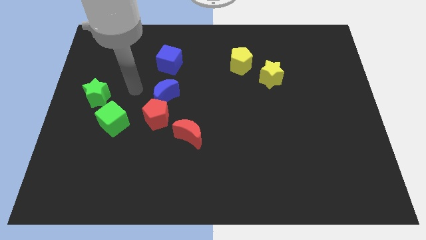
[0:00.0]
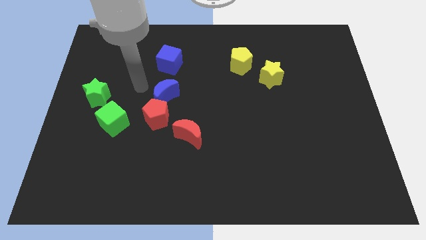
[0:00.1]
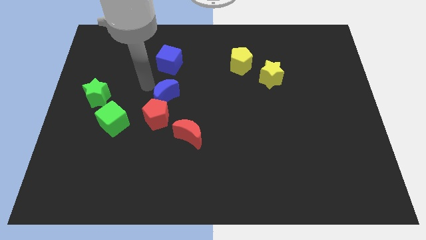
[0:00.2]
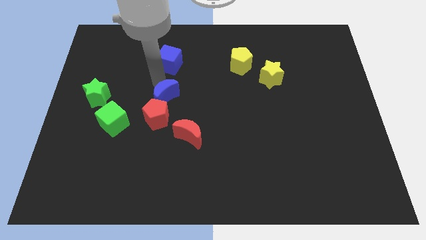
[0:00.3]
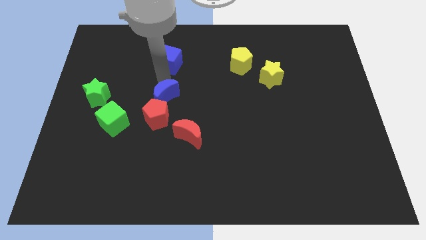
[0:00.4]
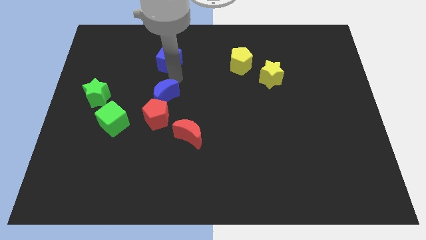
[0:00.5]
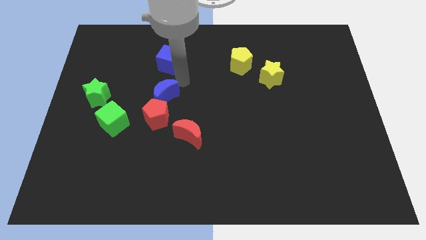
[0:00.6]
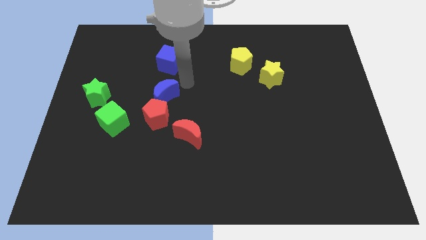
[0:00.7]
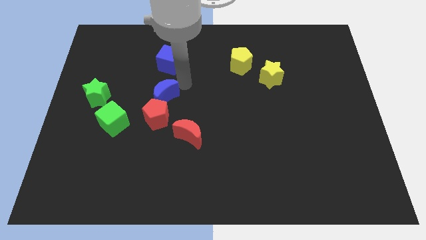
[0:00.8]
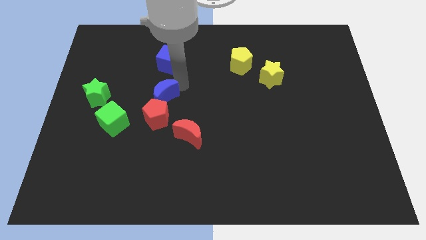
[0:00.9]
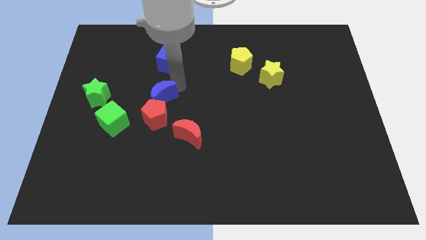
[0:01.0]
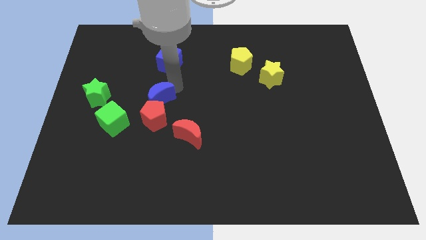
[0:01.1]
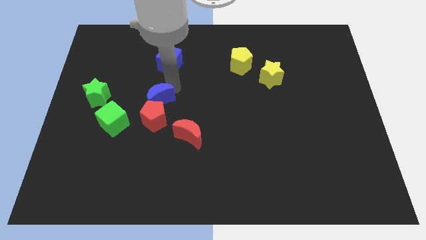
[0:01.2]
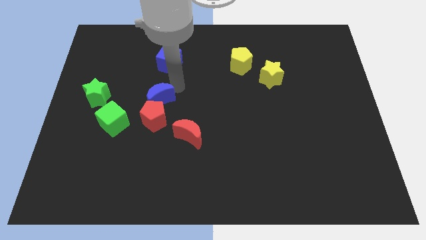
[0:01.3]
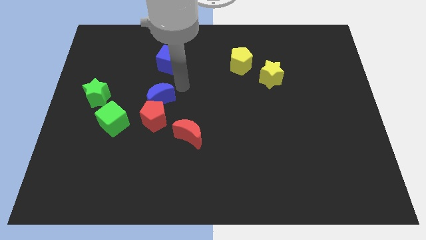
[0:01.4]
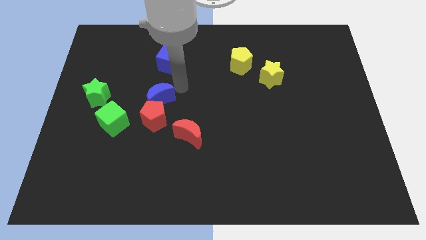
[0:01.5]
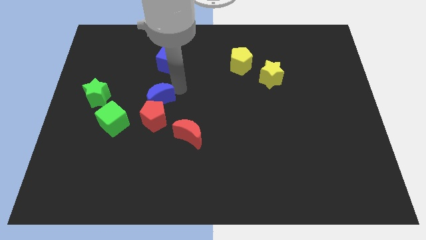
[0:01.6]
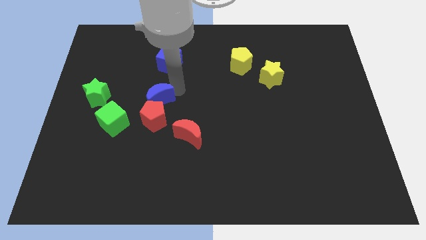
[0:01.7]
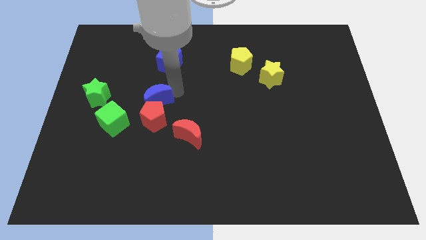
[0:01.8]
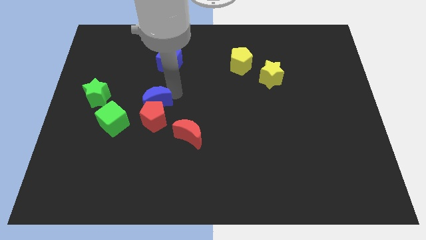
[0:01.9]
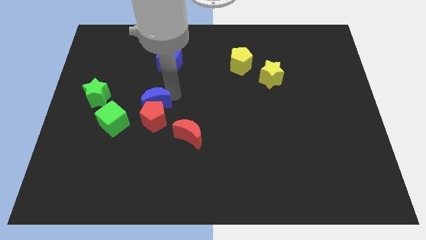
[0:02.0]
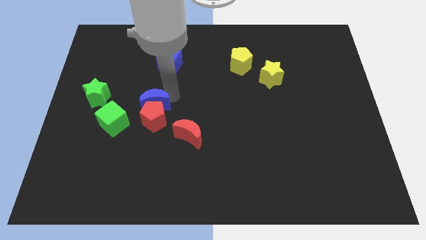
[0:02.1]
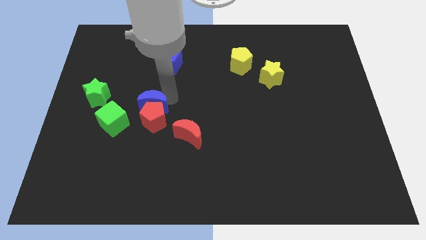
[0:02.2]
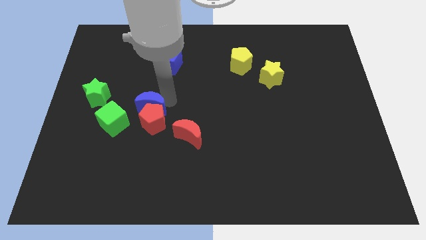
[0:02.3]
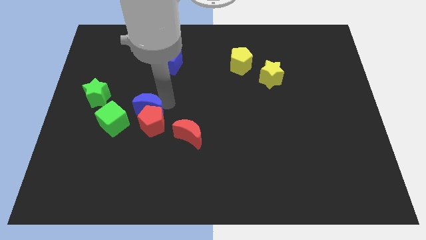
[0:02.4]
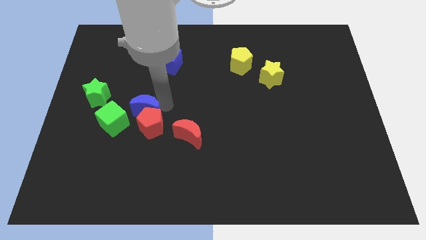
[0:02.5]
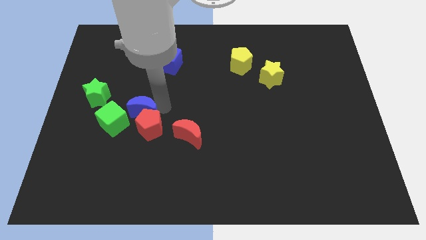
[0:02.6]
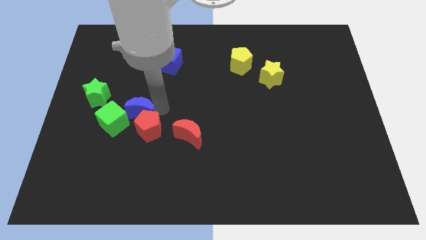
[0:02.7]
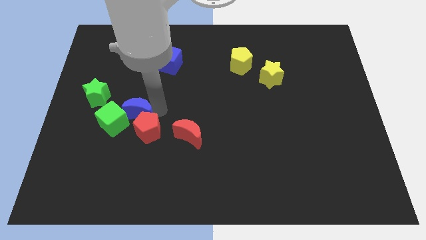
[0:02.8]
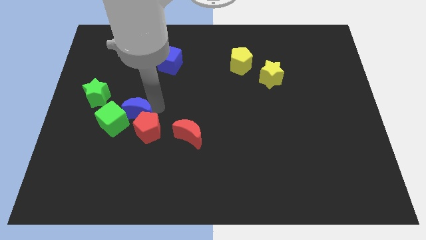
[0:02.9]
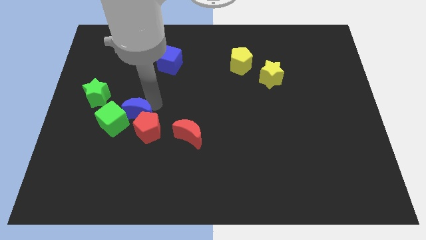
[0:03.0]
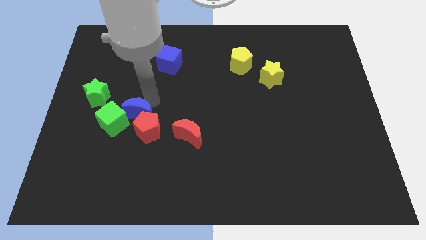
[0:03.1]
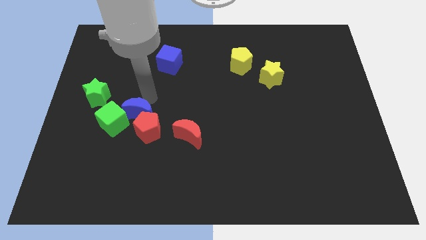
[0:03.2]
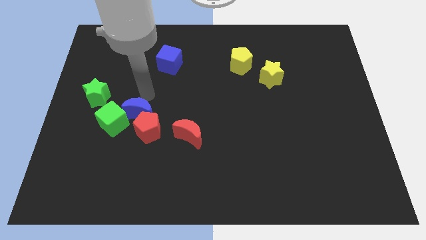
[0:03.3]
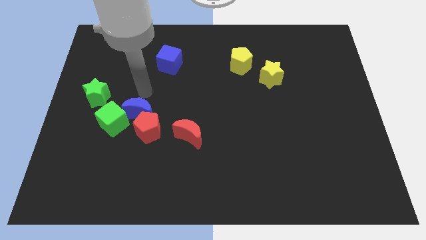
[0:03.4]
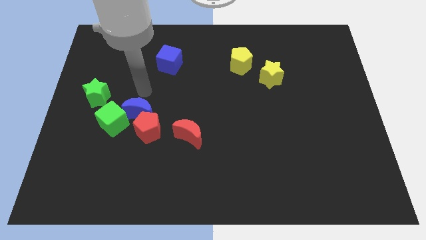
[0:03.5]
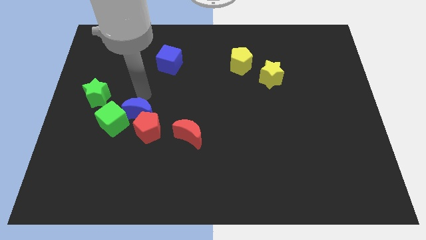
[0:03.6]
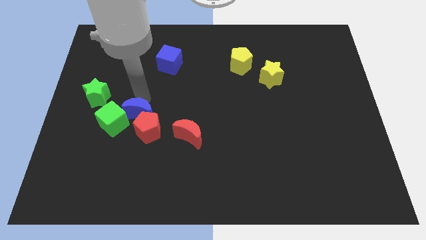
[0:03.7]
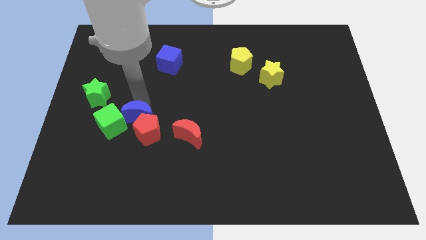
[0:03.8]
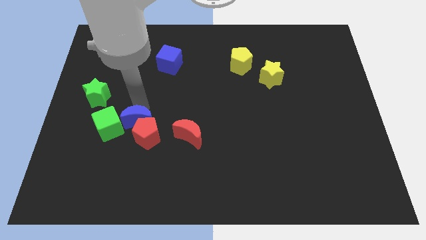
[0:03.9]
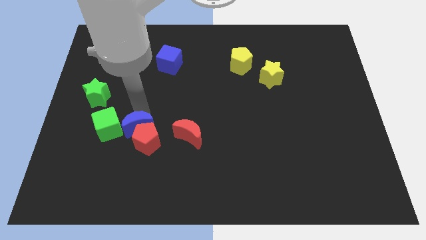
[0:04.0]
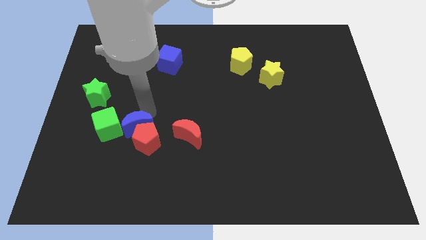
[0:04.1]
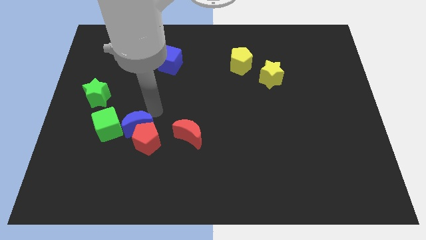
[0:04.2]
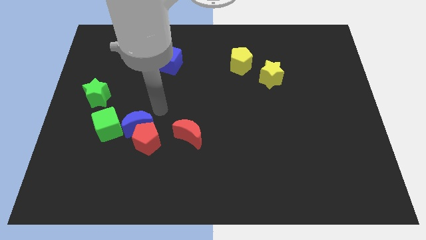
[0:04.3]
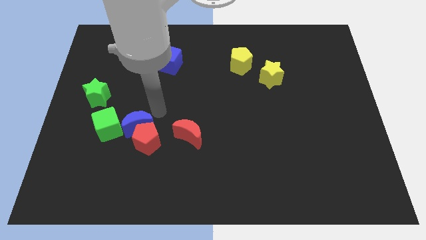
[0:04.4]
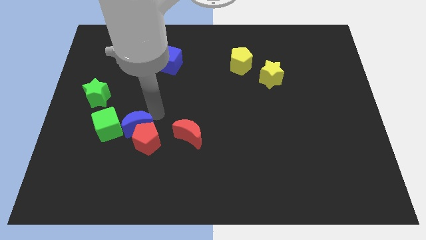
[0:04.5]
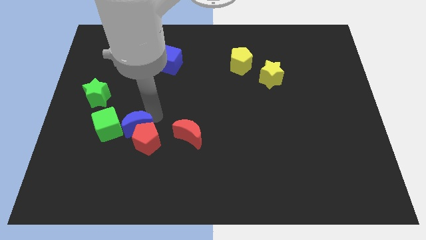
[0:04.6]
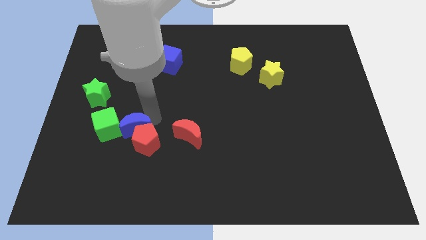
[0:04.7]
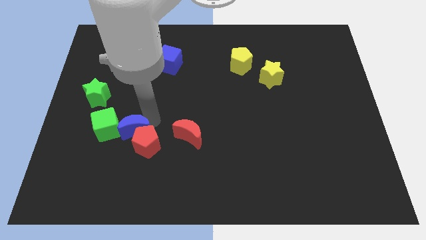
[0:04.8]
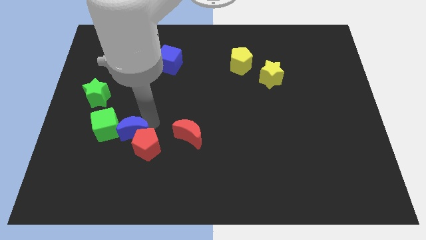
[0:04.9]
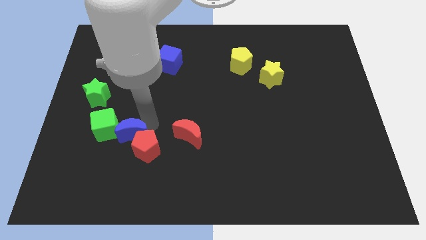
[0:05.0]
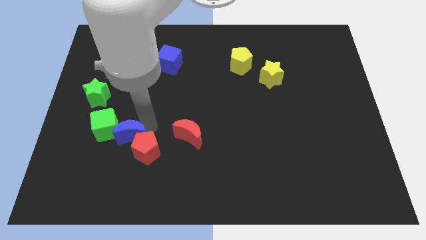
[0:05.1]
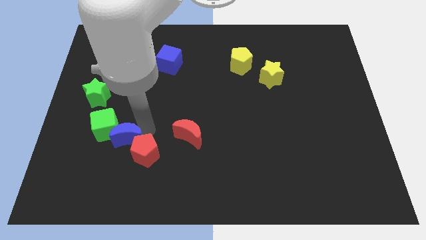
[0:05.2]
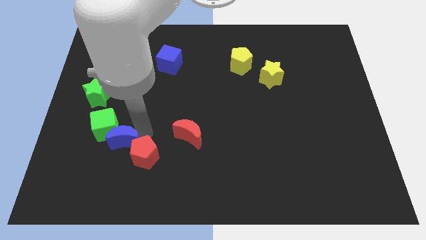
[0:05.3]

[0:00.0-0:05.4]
push the blue moon below the green cube

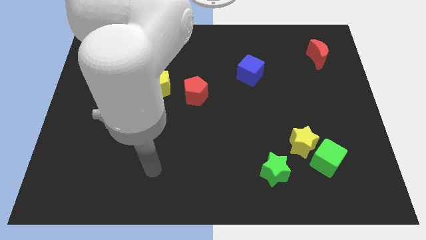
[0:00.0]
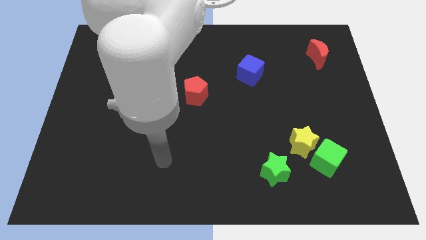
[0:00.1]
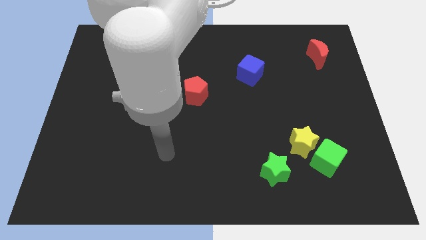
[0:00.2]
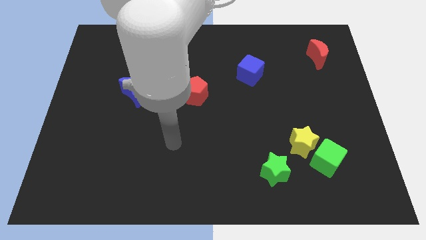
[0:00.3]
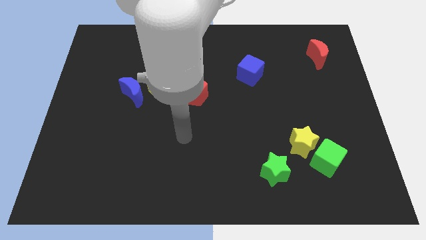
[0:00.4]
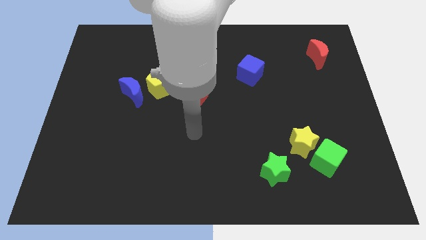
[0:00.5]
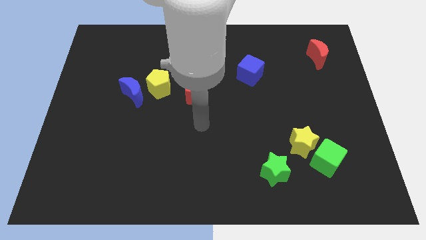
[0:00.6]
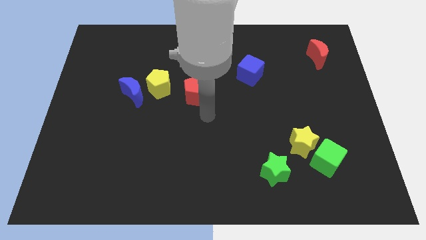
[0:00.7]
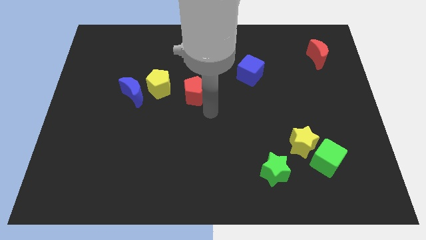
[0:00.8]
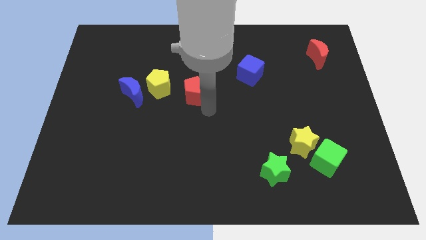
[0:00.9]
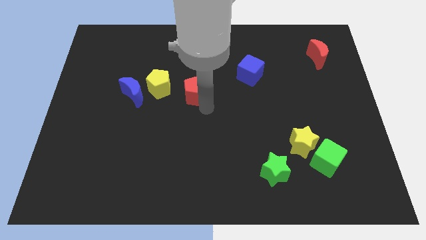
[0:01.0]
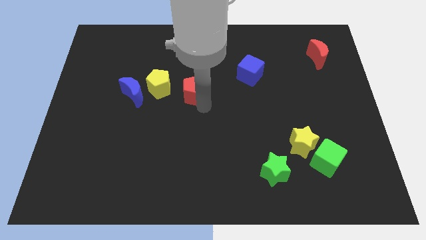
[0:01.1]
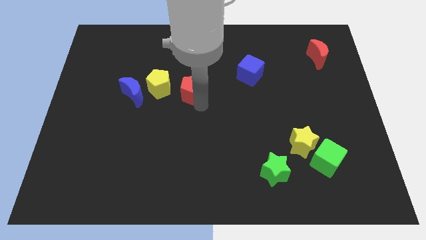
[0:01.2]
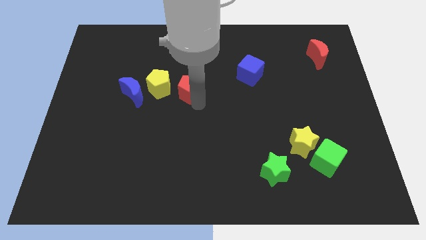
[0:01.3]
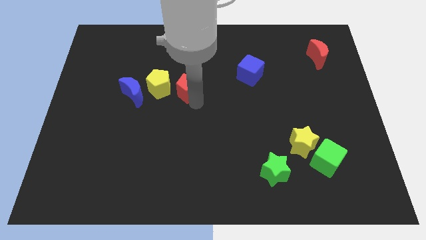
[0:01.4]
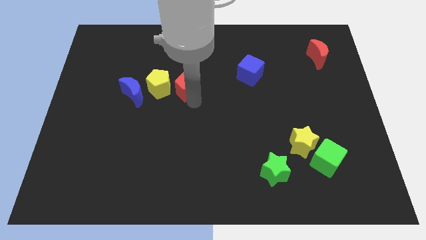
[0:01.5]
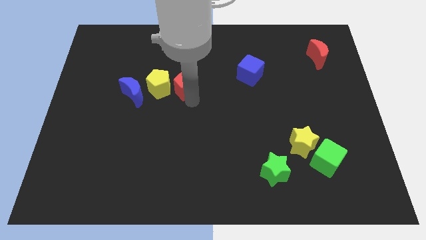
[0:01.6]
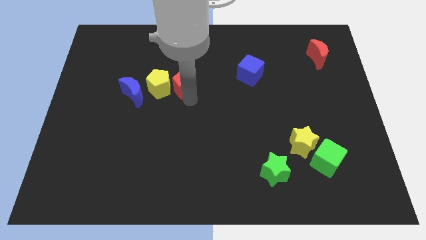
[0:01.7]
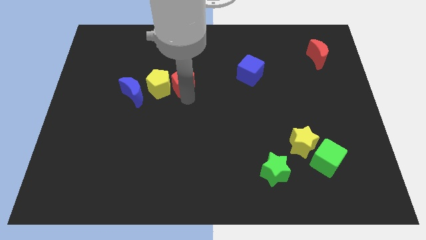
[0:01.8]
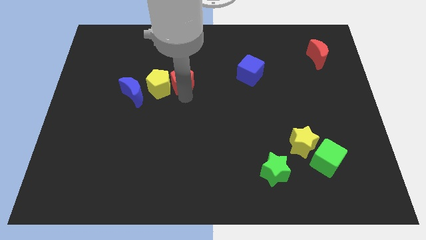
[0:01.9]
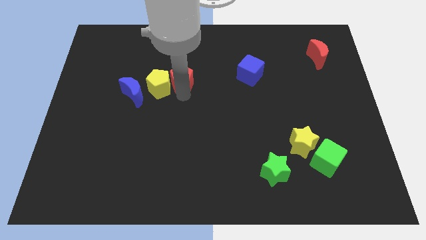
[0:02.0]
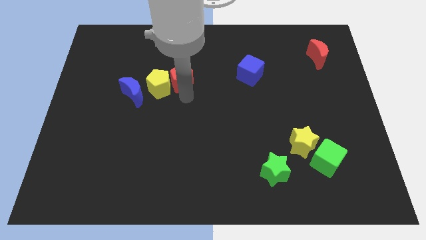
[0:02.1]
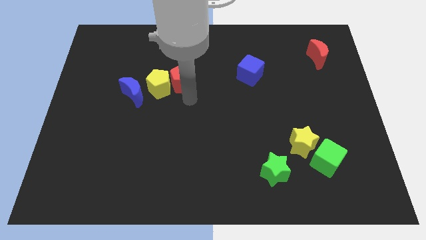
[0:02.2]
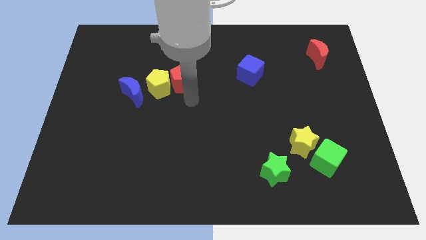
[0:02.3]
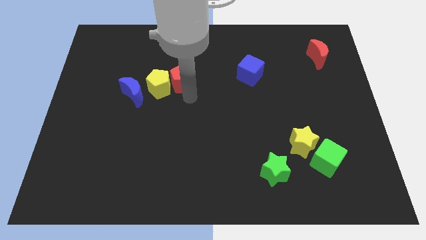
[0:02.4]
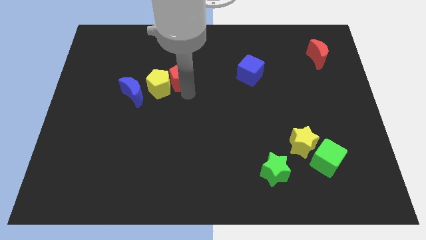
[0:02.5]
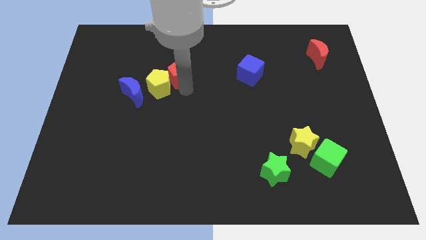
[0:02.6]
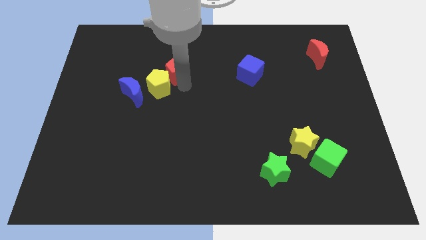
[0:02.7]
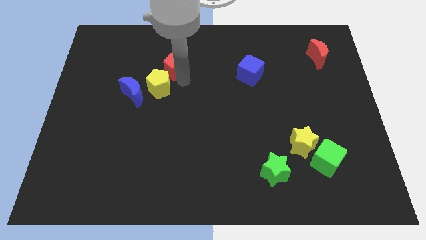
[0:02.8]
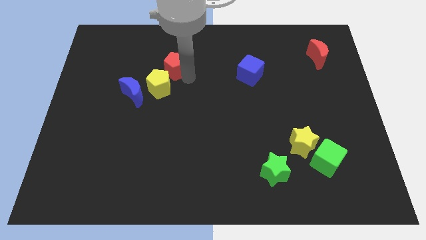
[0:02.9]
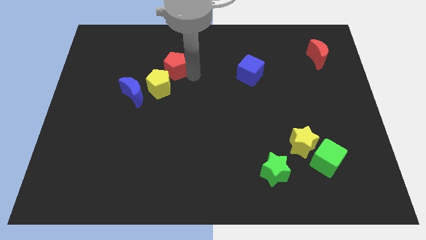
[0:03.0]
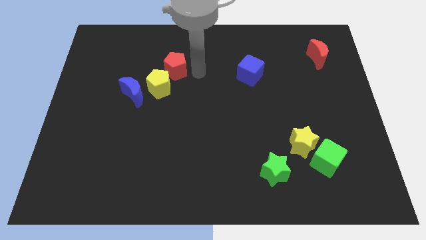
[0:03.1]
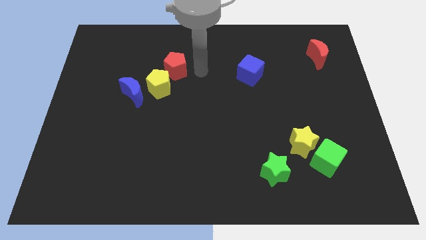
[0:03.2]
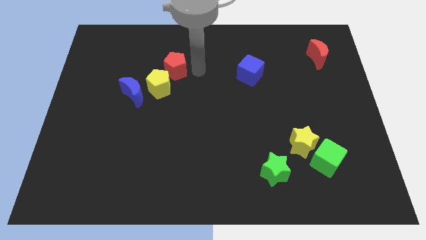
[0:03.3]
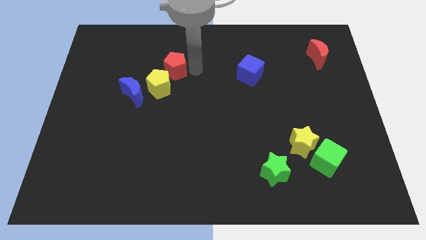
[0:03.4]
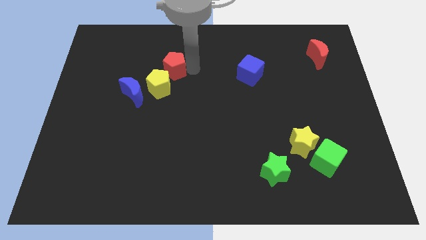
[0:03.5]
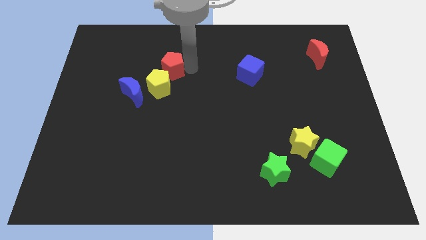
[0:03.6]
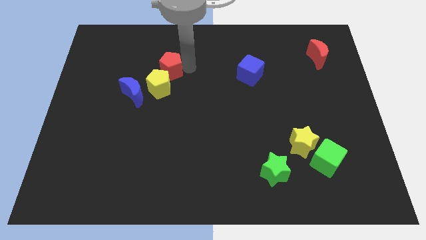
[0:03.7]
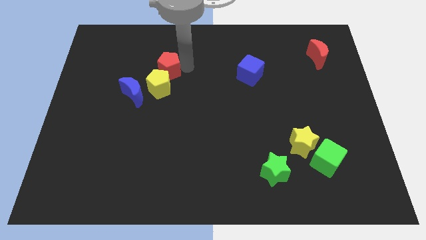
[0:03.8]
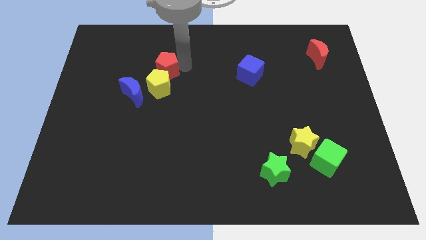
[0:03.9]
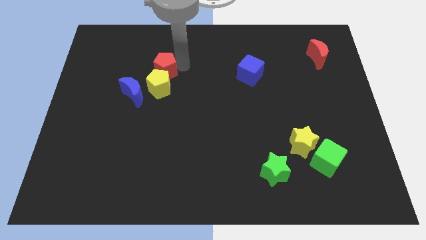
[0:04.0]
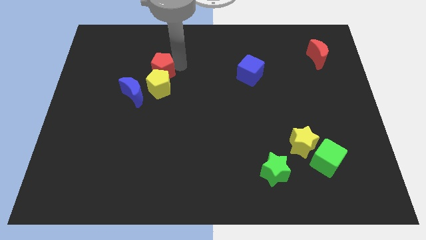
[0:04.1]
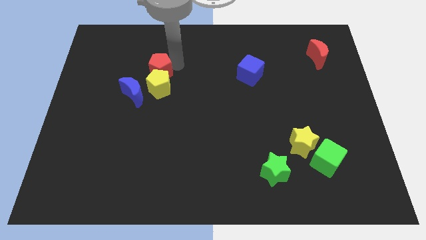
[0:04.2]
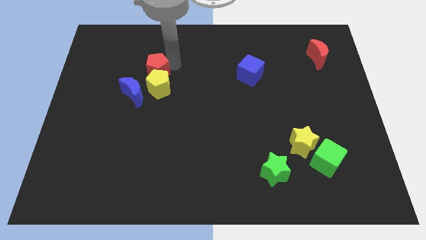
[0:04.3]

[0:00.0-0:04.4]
push the red pentagon above the blue moon
